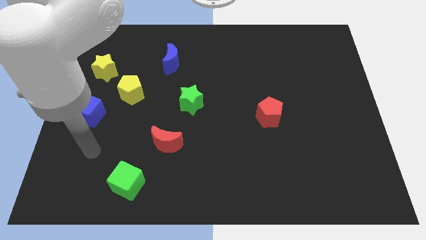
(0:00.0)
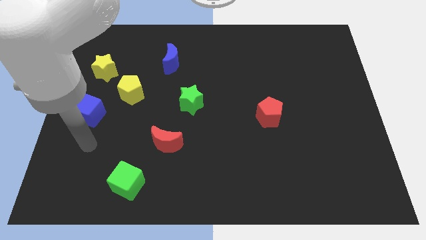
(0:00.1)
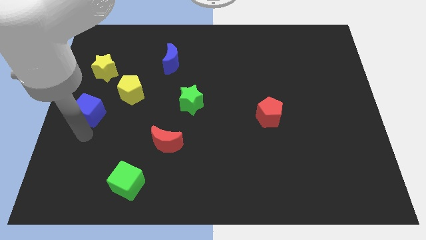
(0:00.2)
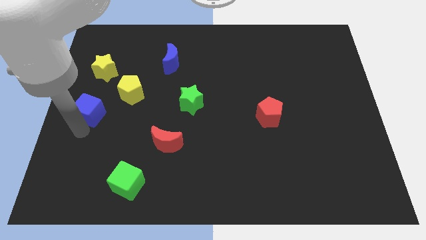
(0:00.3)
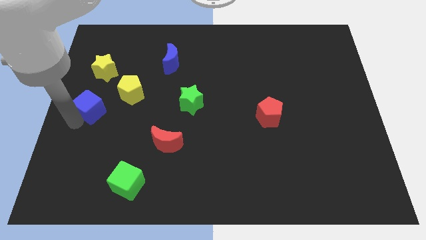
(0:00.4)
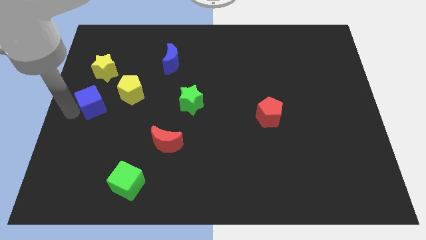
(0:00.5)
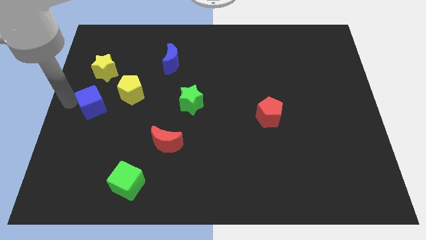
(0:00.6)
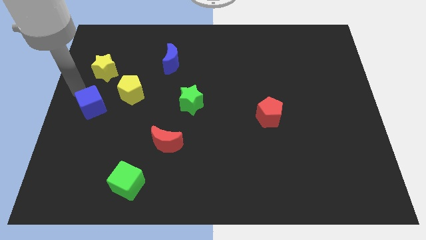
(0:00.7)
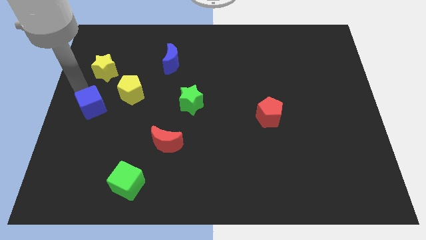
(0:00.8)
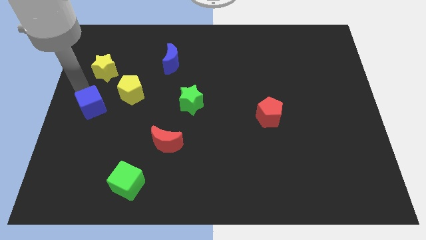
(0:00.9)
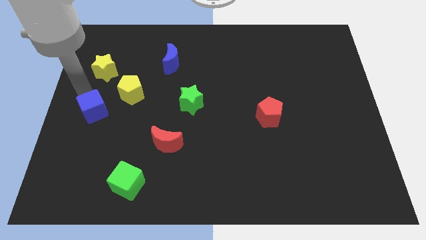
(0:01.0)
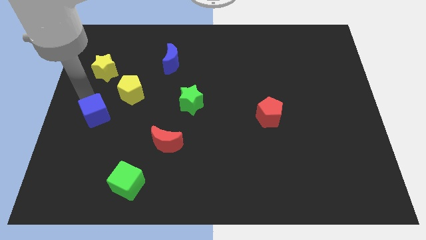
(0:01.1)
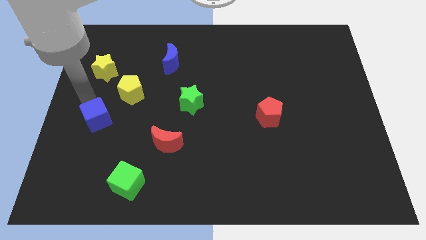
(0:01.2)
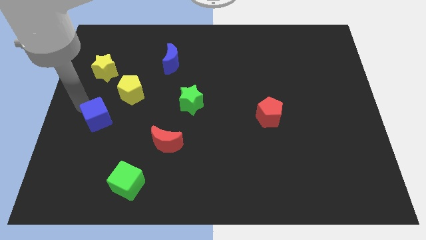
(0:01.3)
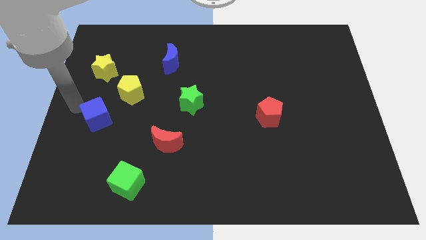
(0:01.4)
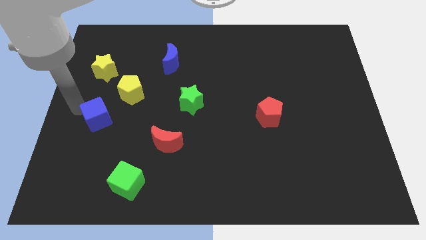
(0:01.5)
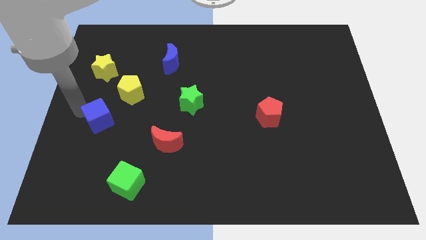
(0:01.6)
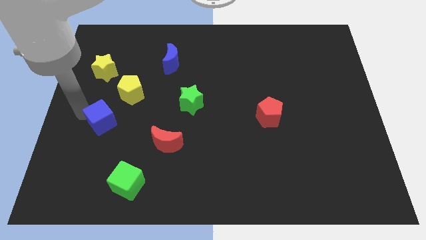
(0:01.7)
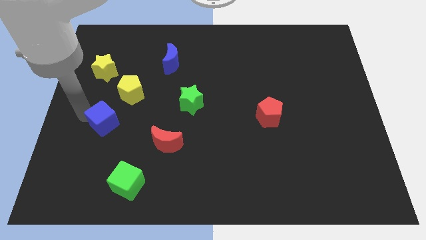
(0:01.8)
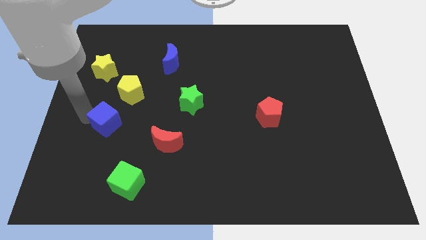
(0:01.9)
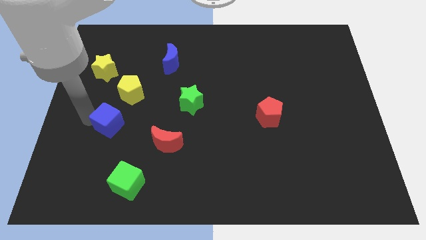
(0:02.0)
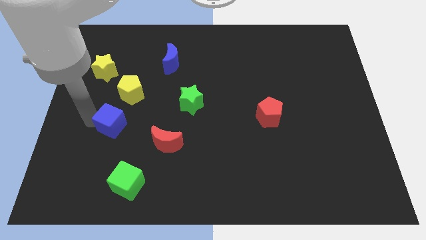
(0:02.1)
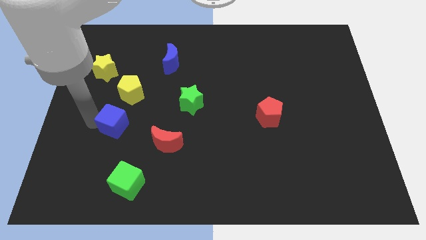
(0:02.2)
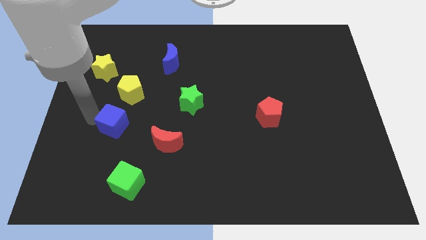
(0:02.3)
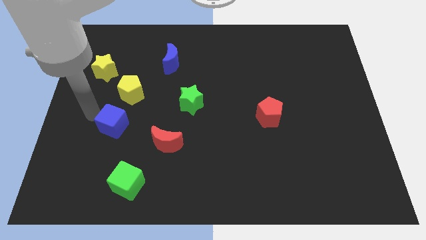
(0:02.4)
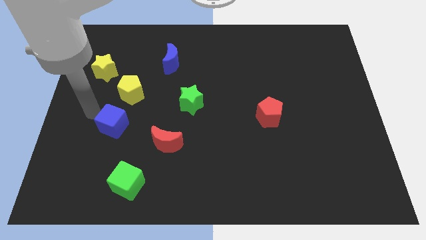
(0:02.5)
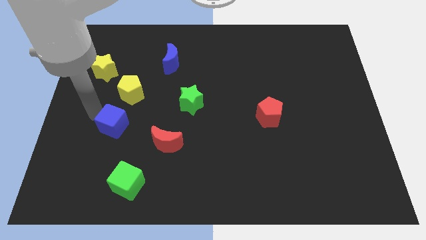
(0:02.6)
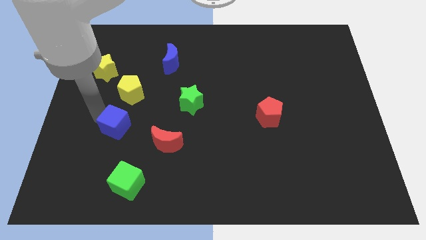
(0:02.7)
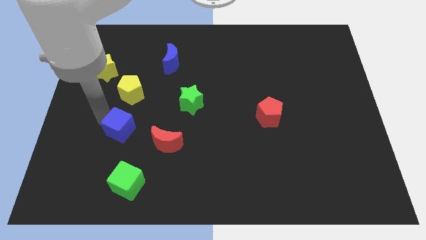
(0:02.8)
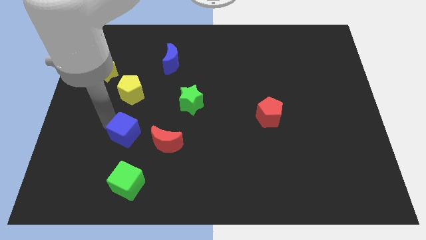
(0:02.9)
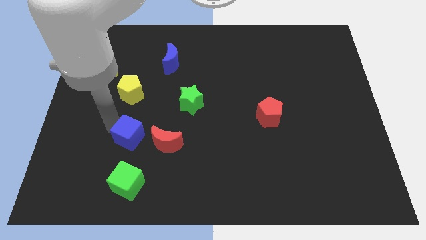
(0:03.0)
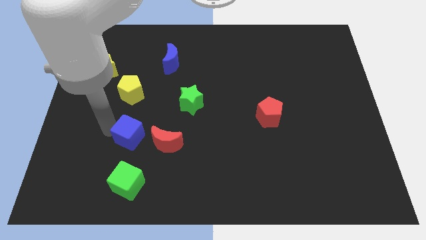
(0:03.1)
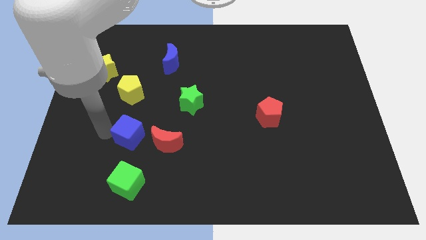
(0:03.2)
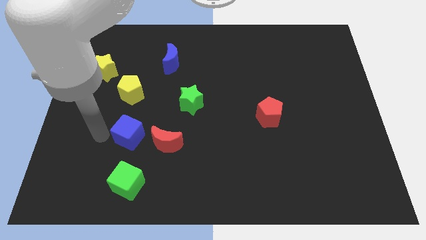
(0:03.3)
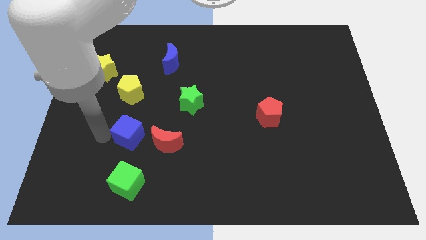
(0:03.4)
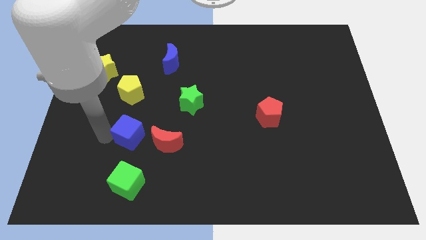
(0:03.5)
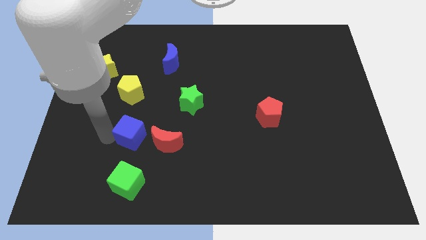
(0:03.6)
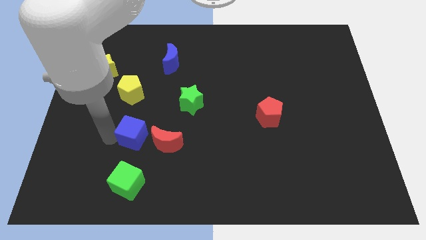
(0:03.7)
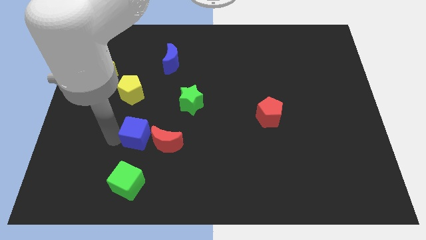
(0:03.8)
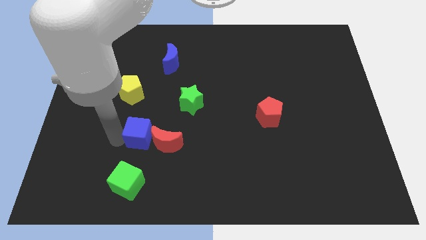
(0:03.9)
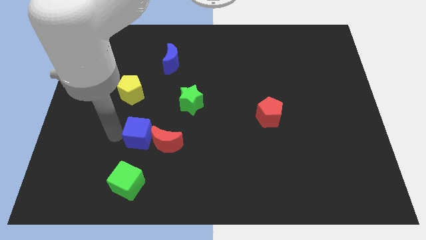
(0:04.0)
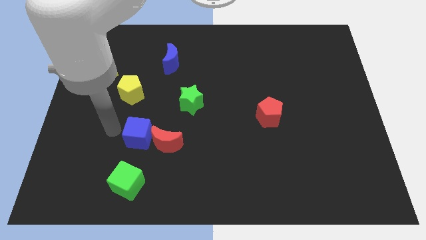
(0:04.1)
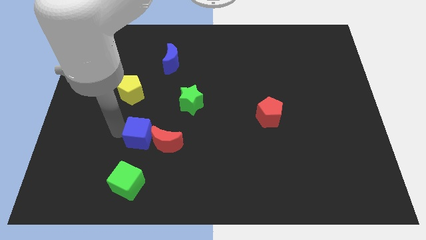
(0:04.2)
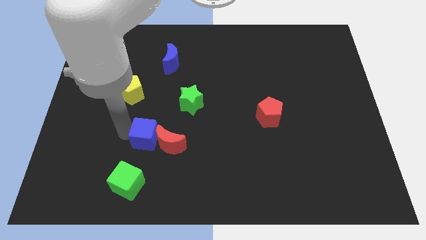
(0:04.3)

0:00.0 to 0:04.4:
put the blue cube towards the red moon

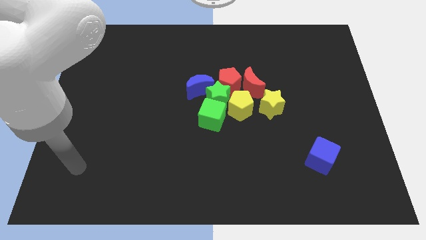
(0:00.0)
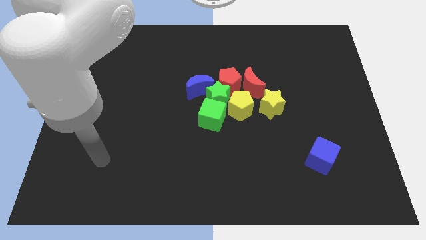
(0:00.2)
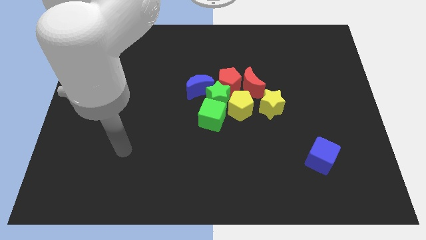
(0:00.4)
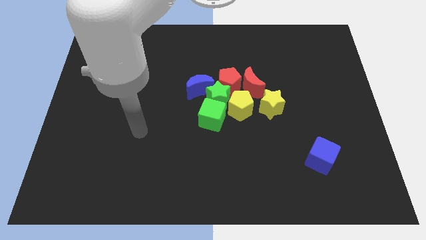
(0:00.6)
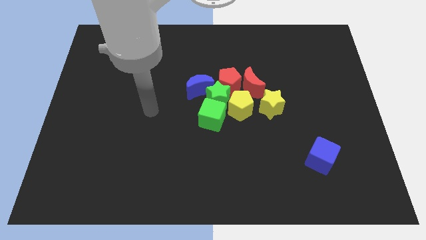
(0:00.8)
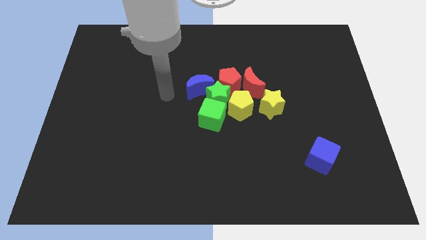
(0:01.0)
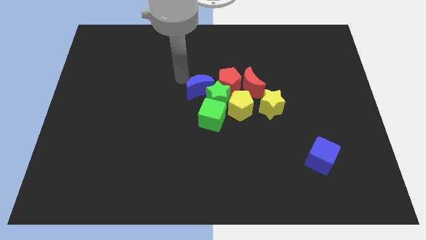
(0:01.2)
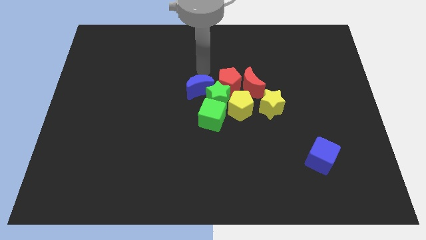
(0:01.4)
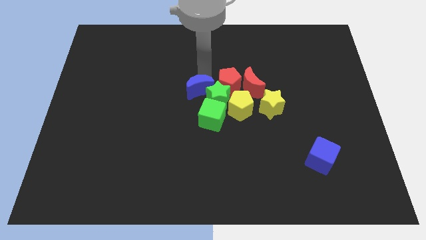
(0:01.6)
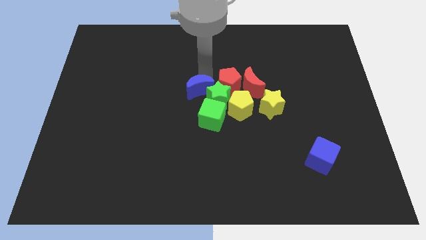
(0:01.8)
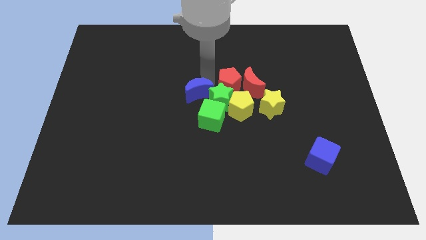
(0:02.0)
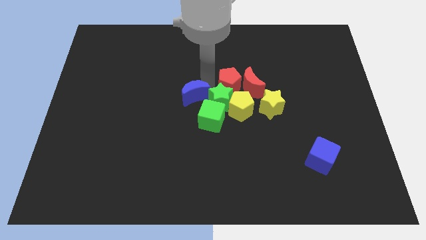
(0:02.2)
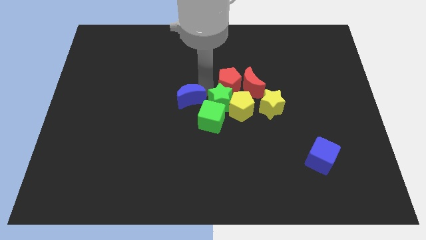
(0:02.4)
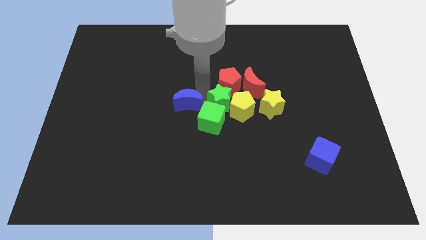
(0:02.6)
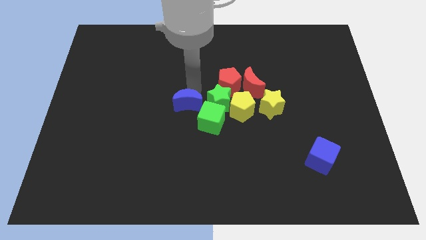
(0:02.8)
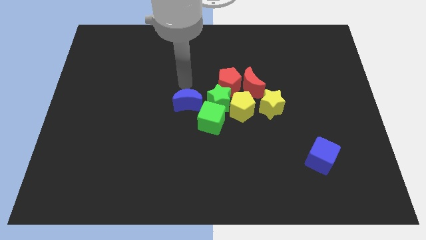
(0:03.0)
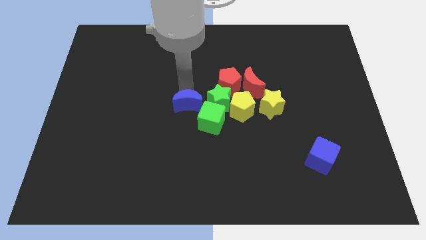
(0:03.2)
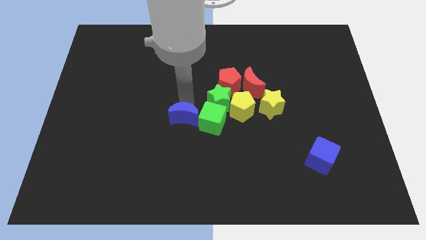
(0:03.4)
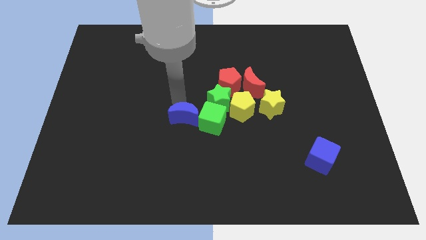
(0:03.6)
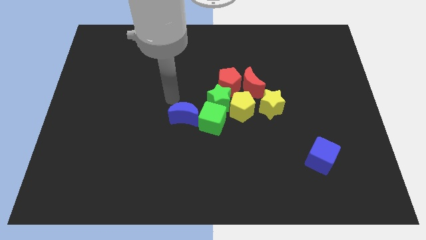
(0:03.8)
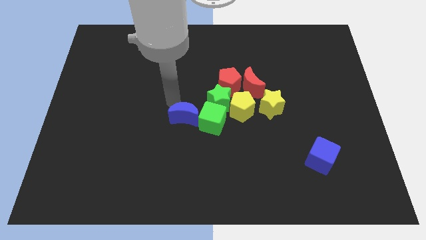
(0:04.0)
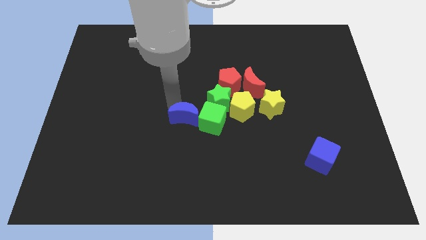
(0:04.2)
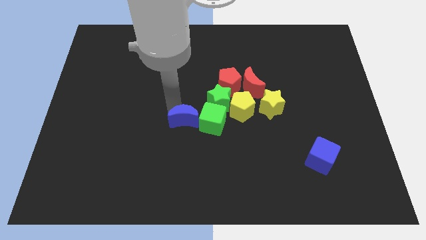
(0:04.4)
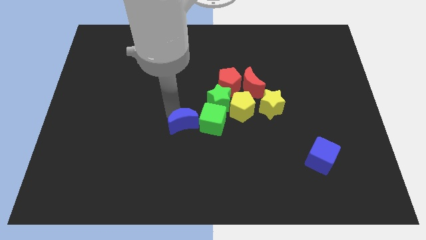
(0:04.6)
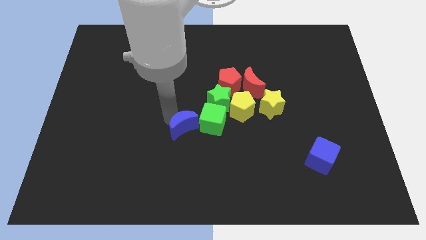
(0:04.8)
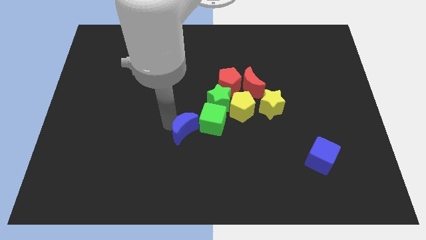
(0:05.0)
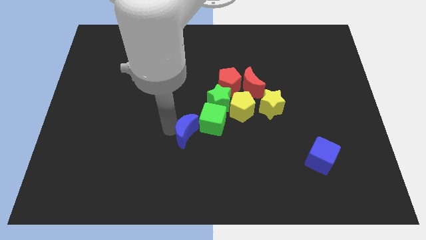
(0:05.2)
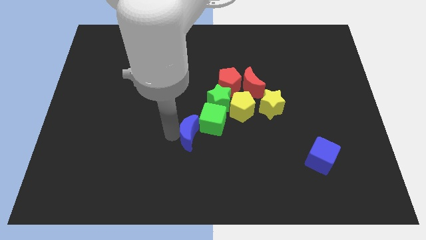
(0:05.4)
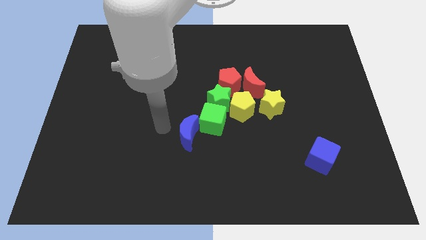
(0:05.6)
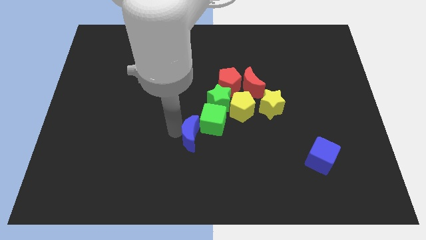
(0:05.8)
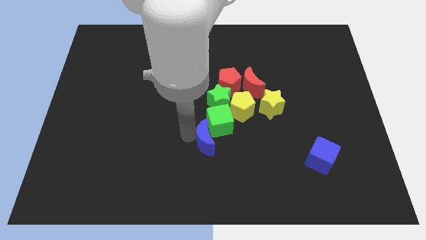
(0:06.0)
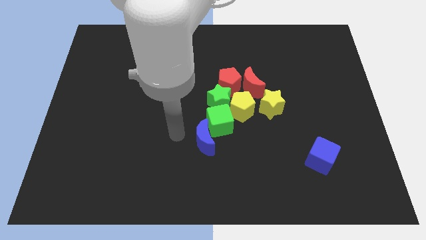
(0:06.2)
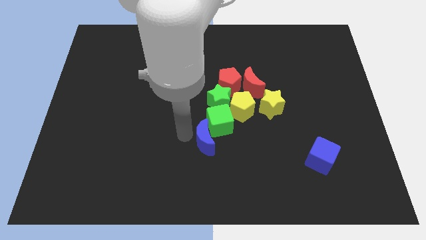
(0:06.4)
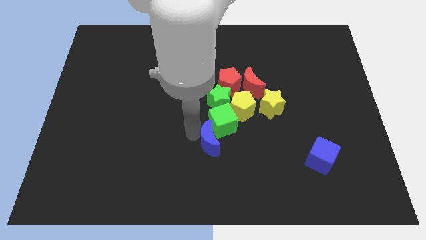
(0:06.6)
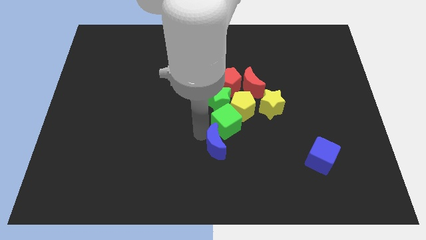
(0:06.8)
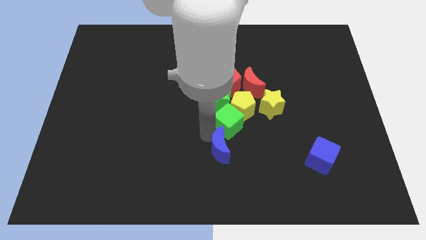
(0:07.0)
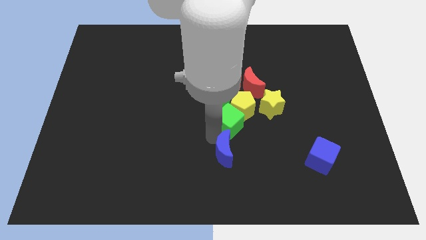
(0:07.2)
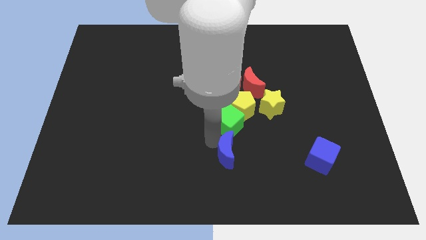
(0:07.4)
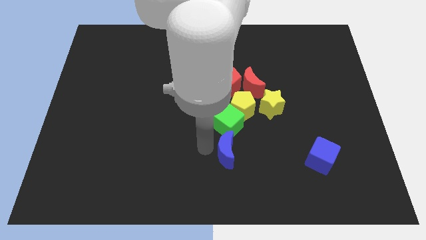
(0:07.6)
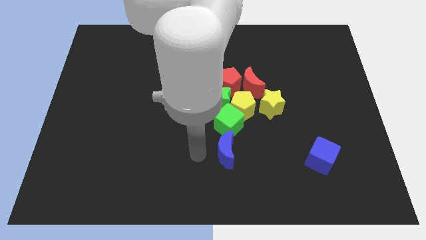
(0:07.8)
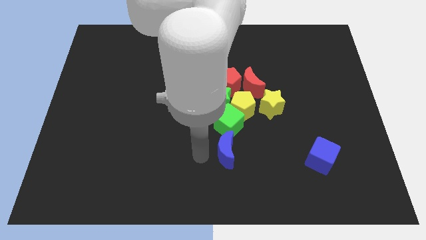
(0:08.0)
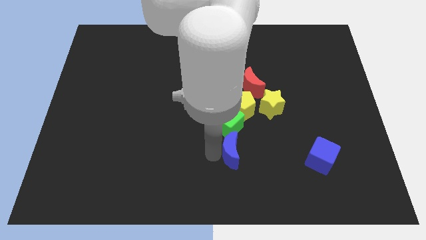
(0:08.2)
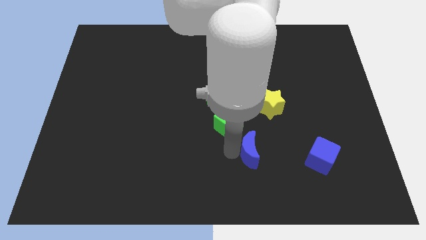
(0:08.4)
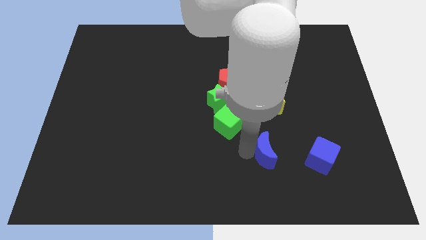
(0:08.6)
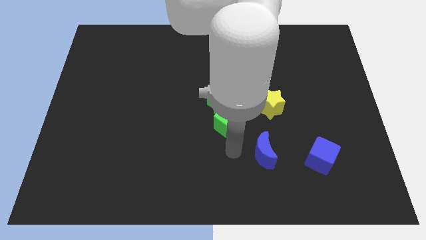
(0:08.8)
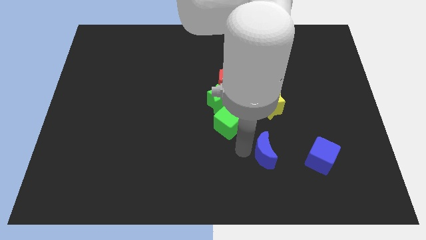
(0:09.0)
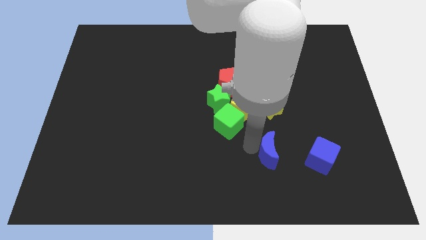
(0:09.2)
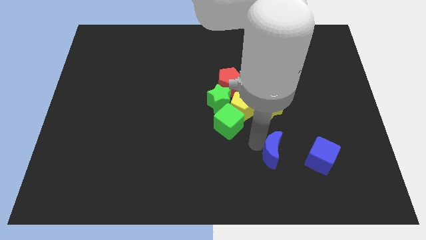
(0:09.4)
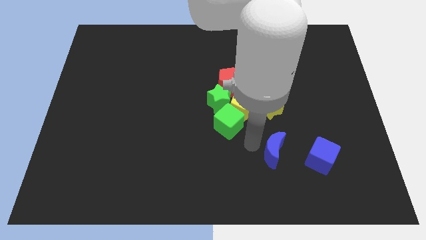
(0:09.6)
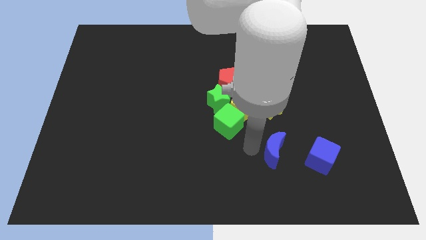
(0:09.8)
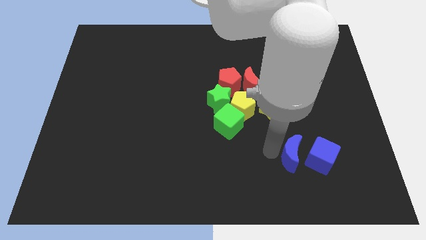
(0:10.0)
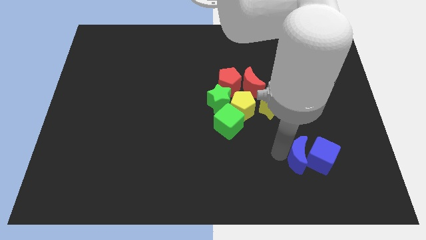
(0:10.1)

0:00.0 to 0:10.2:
move the blue moon to the blue cube
